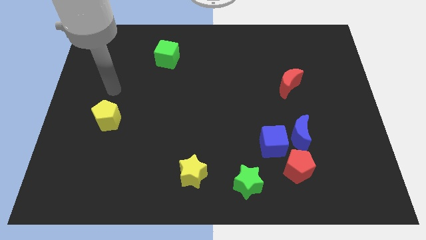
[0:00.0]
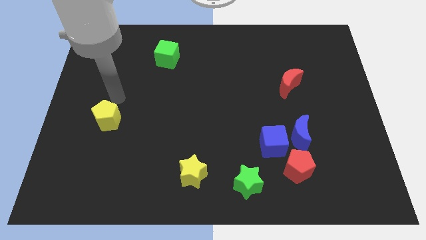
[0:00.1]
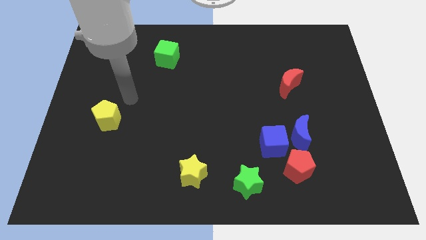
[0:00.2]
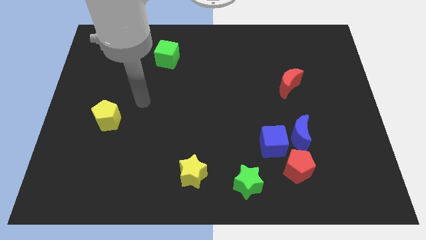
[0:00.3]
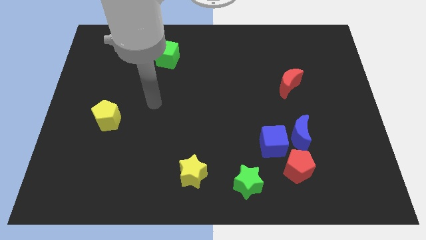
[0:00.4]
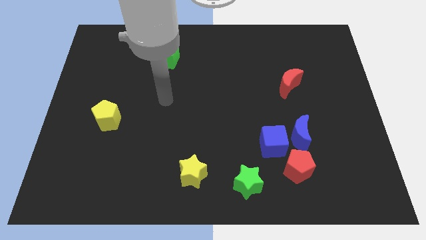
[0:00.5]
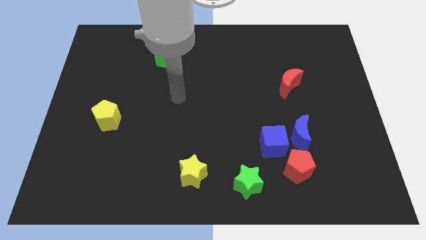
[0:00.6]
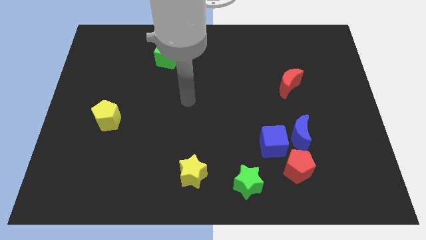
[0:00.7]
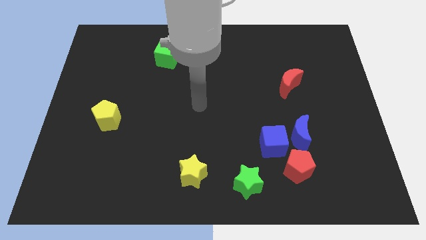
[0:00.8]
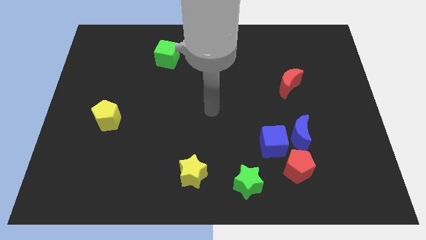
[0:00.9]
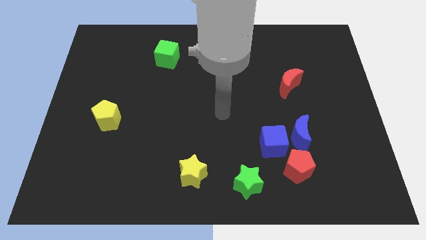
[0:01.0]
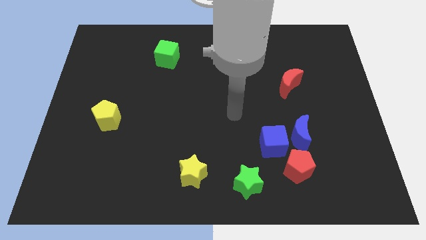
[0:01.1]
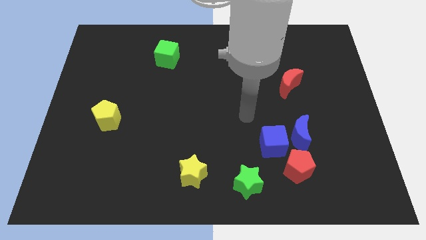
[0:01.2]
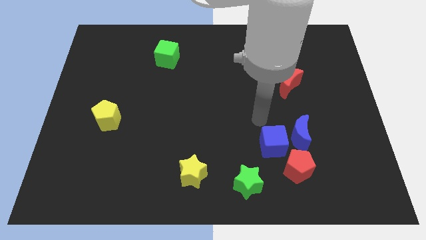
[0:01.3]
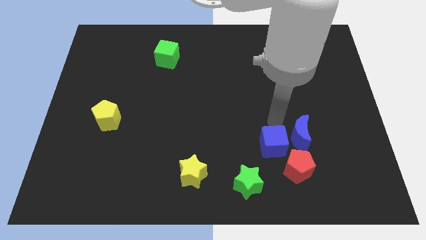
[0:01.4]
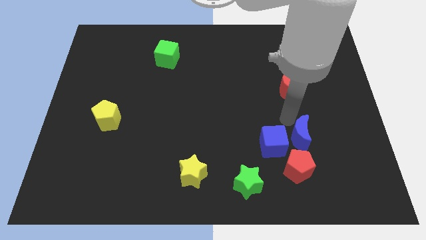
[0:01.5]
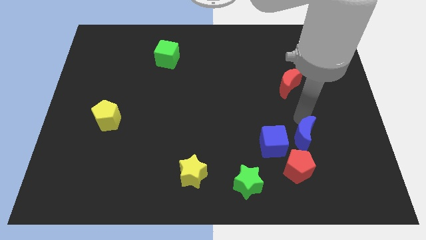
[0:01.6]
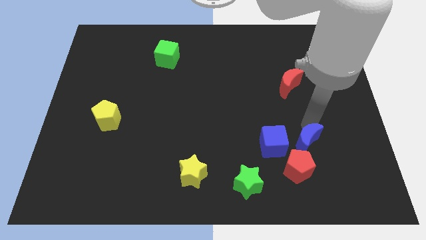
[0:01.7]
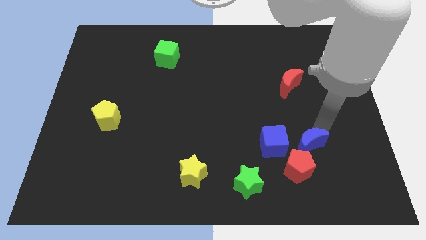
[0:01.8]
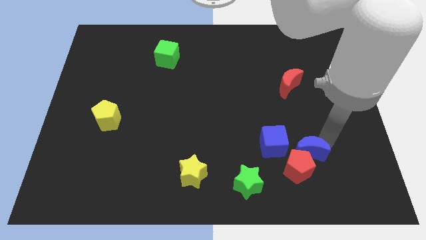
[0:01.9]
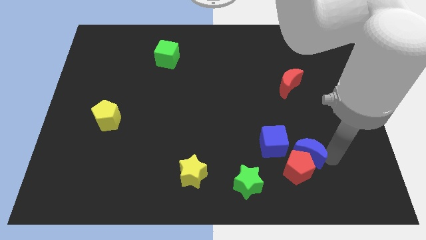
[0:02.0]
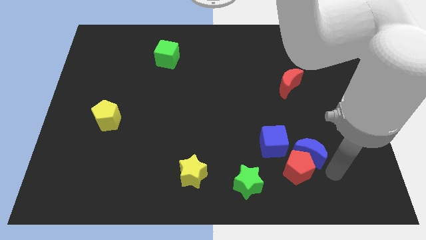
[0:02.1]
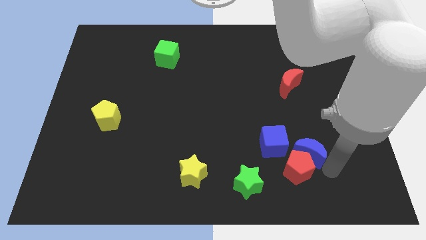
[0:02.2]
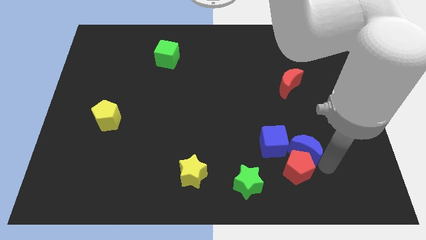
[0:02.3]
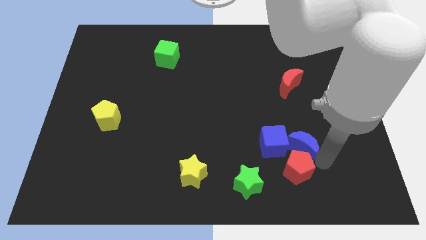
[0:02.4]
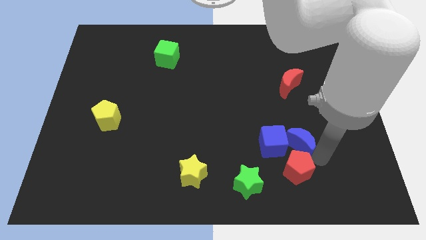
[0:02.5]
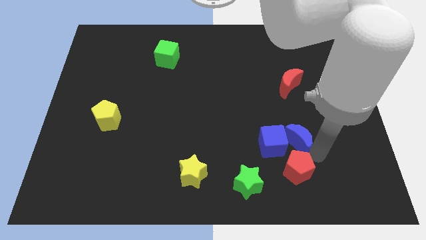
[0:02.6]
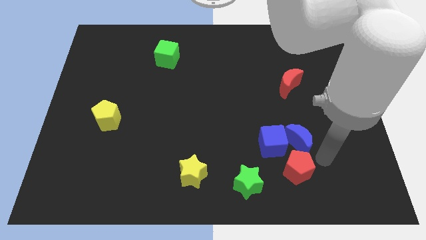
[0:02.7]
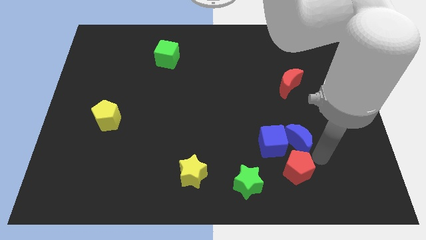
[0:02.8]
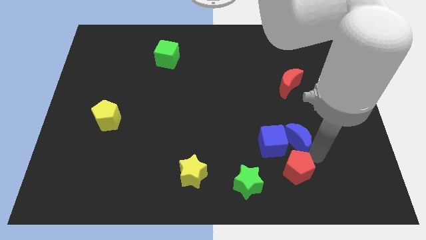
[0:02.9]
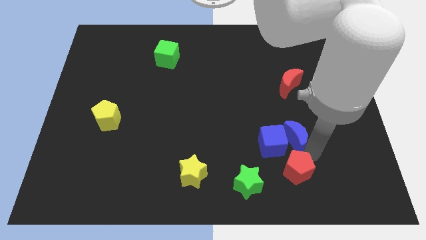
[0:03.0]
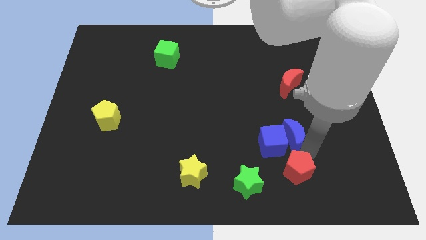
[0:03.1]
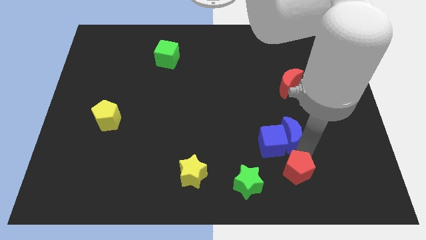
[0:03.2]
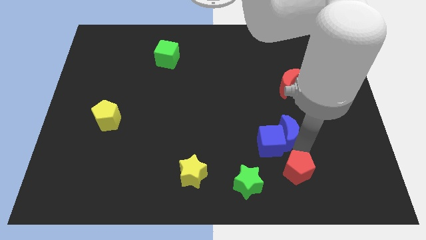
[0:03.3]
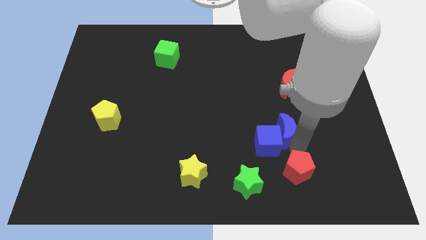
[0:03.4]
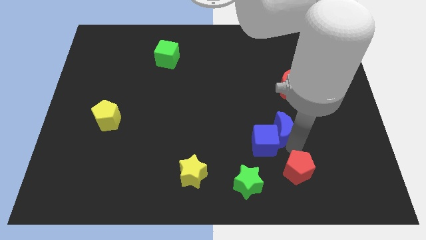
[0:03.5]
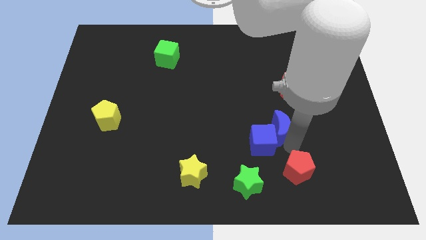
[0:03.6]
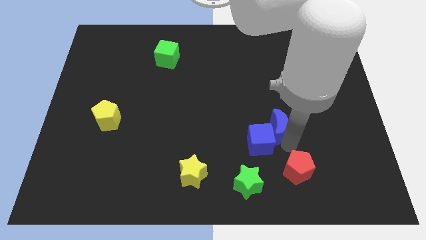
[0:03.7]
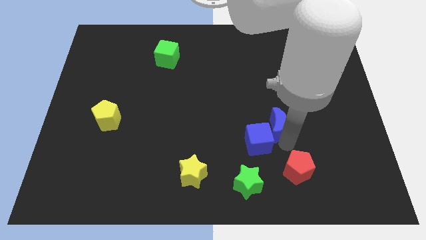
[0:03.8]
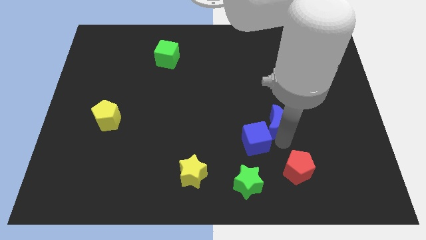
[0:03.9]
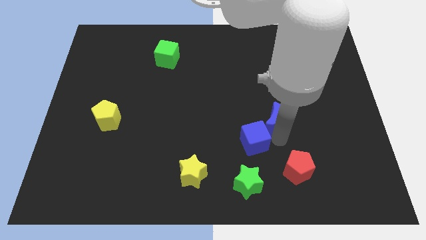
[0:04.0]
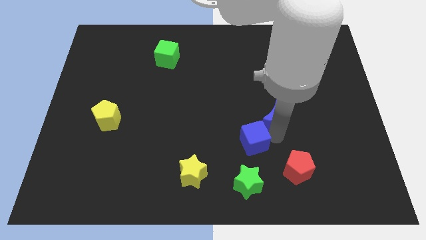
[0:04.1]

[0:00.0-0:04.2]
push the blue moon a little upwards and to the left

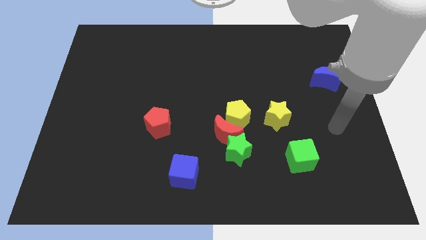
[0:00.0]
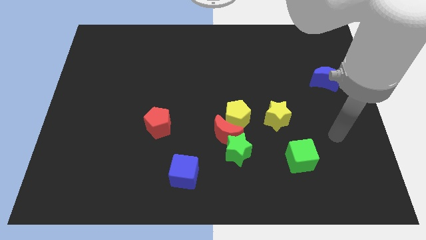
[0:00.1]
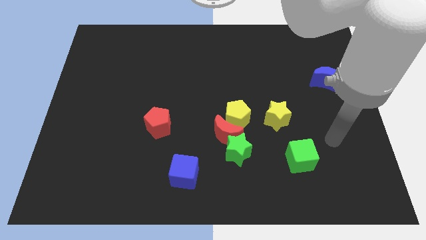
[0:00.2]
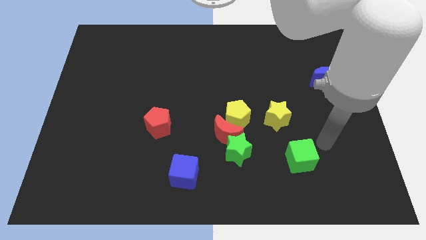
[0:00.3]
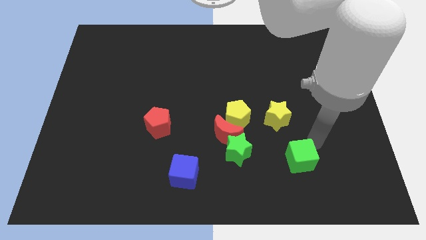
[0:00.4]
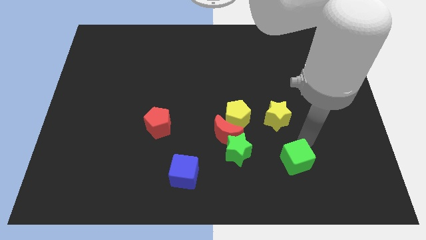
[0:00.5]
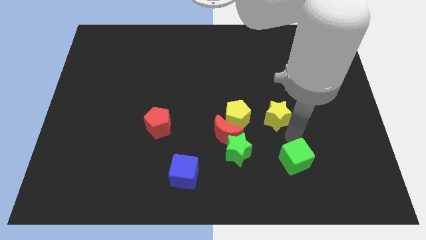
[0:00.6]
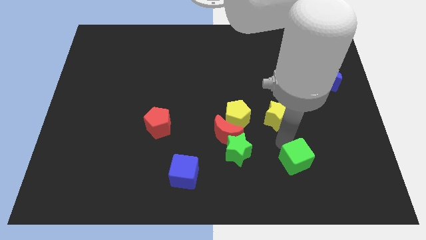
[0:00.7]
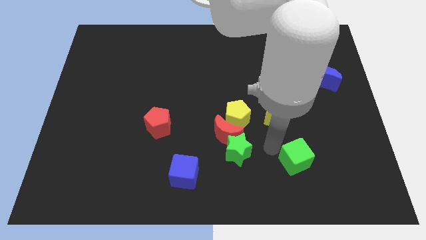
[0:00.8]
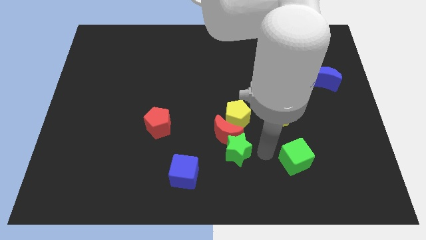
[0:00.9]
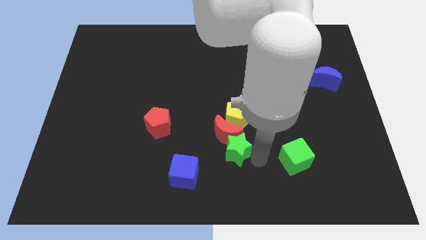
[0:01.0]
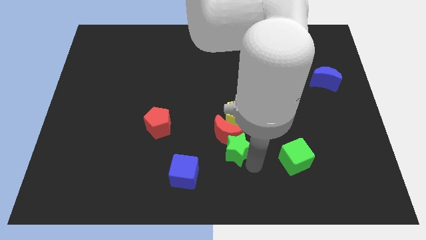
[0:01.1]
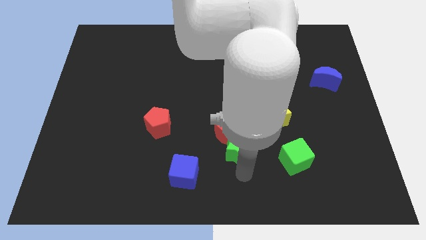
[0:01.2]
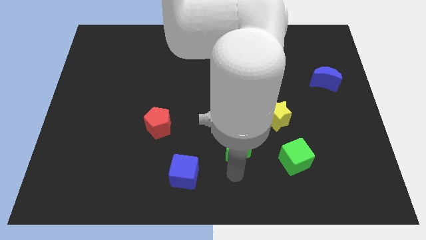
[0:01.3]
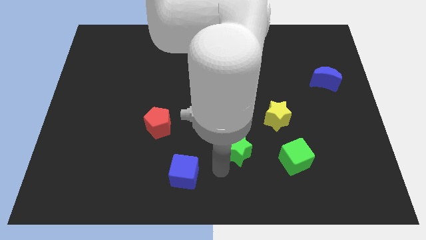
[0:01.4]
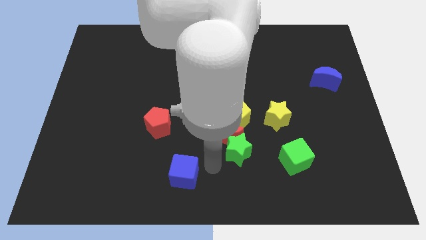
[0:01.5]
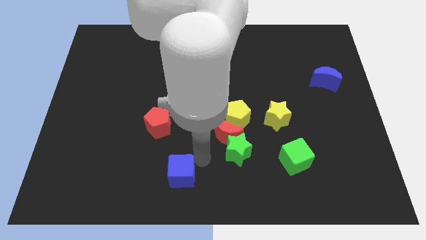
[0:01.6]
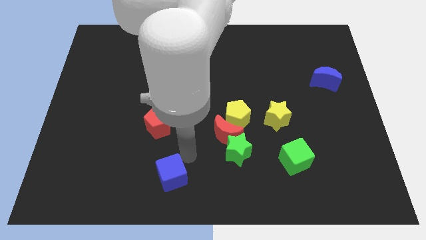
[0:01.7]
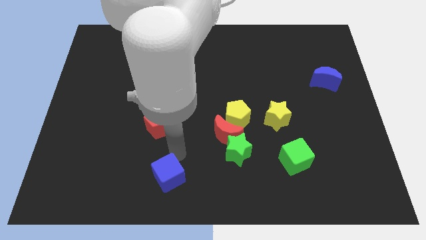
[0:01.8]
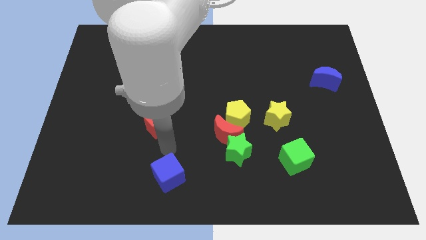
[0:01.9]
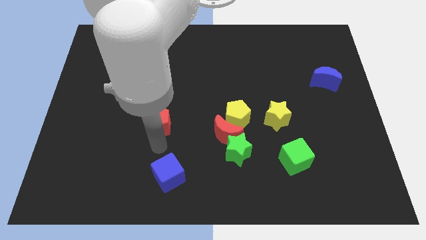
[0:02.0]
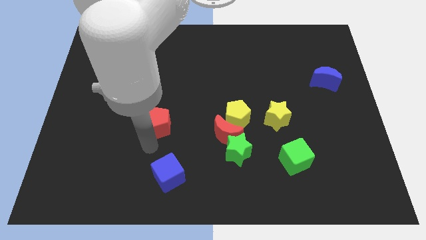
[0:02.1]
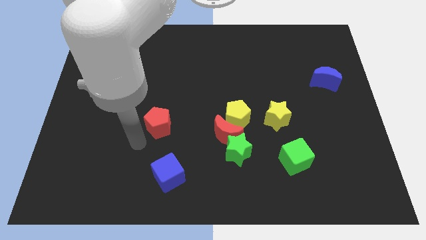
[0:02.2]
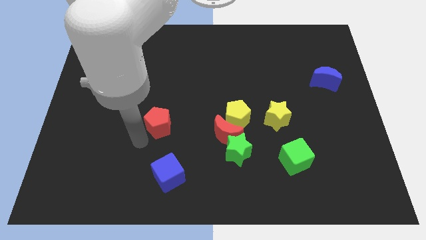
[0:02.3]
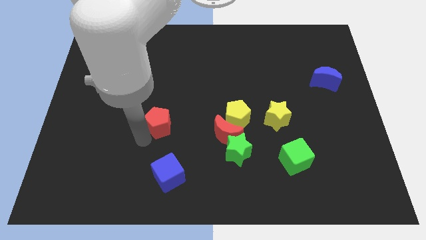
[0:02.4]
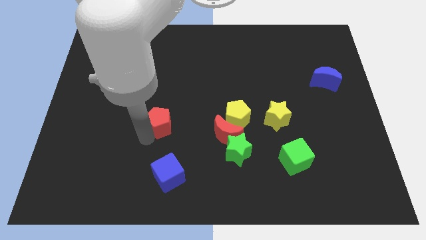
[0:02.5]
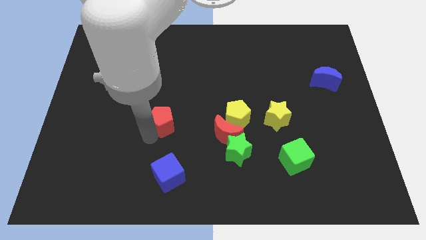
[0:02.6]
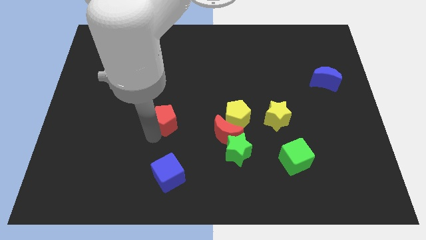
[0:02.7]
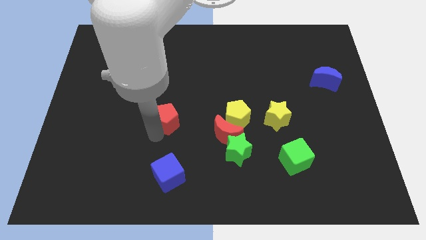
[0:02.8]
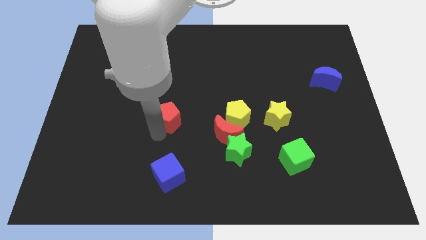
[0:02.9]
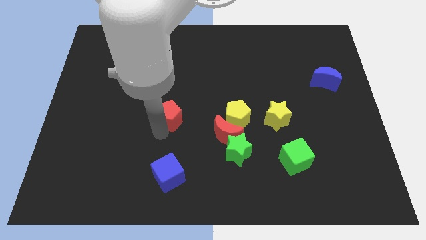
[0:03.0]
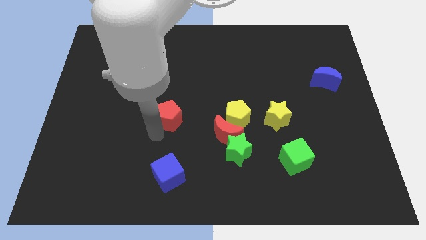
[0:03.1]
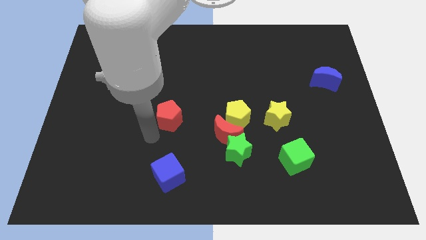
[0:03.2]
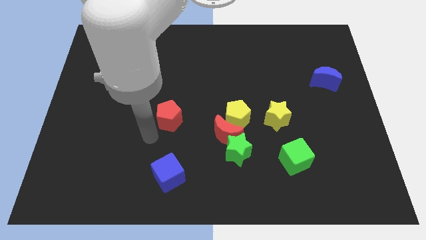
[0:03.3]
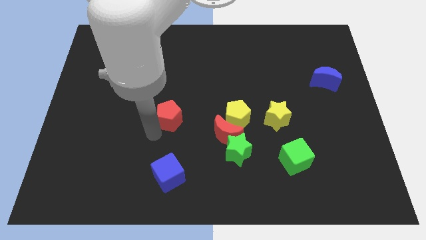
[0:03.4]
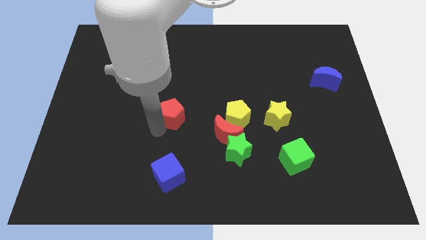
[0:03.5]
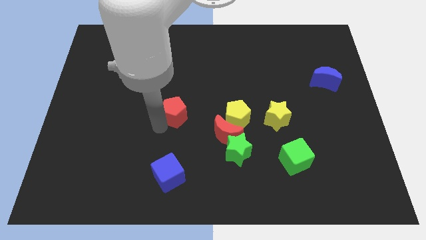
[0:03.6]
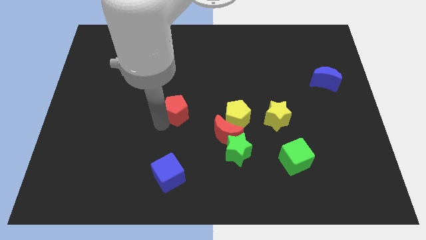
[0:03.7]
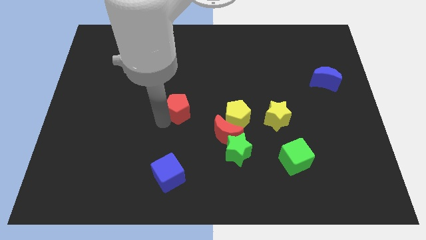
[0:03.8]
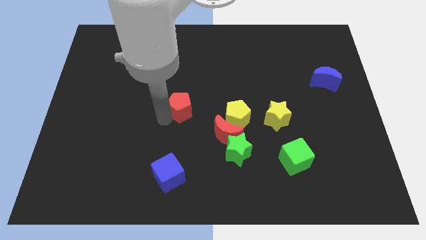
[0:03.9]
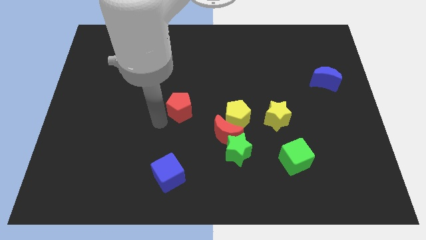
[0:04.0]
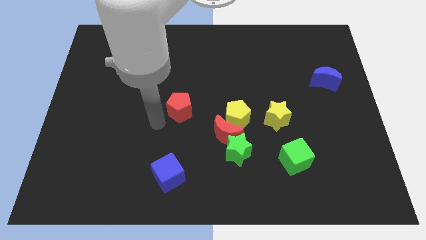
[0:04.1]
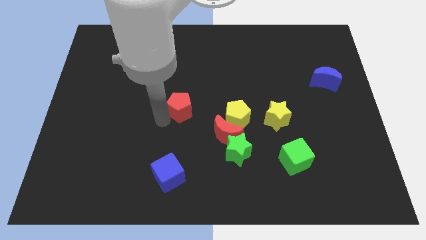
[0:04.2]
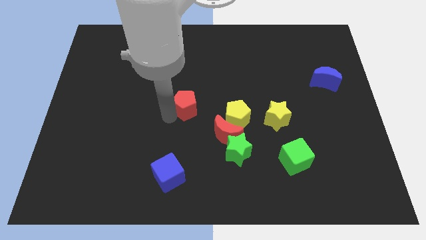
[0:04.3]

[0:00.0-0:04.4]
slide the red pentagon a little upwards and right
